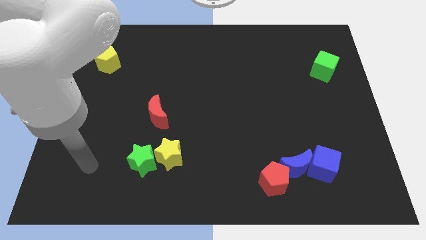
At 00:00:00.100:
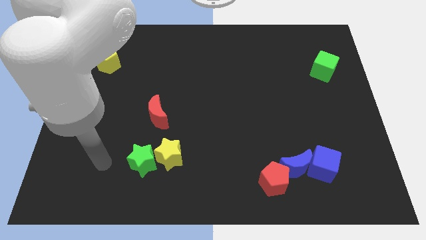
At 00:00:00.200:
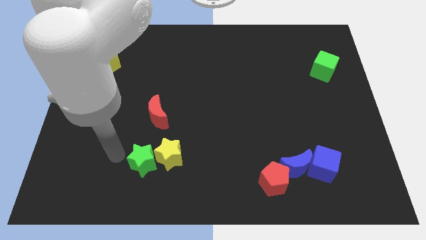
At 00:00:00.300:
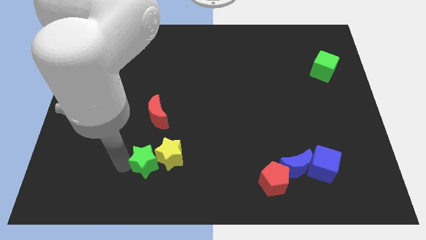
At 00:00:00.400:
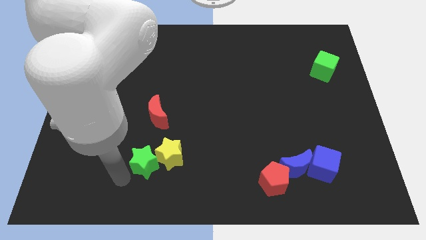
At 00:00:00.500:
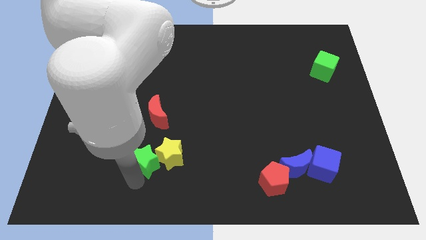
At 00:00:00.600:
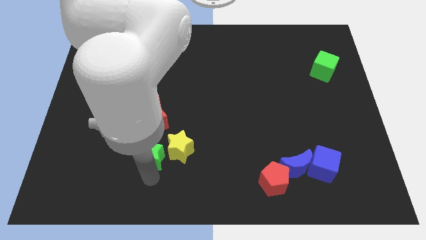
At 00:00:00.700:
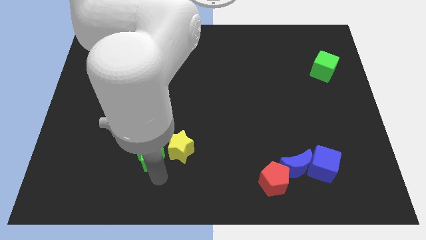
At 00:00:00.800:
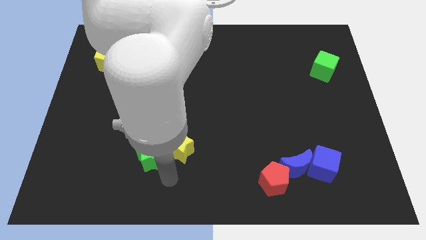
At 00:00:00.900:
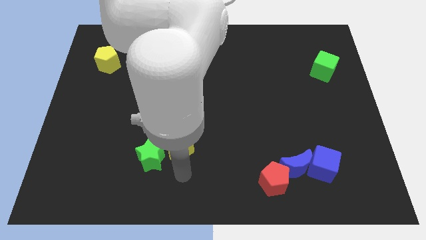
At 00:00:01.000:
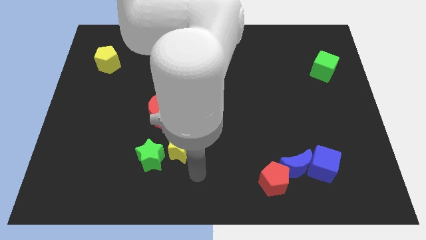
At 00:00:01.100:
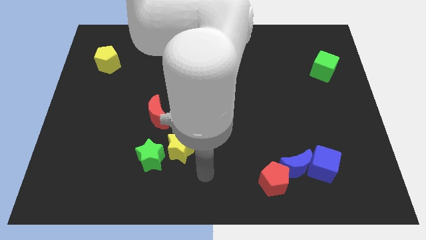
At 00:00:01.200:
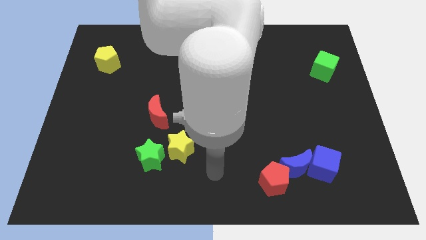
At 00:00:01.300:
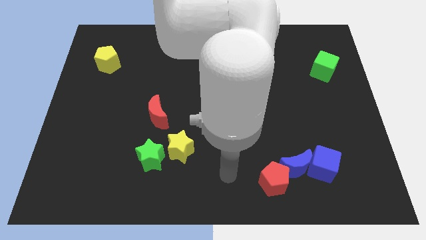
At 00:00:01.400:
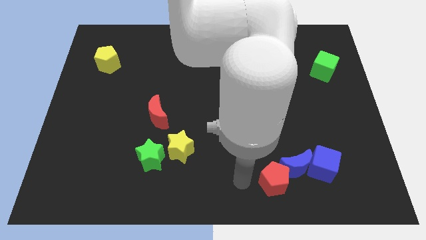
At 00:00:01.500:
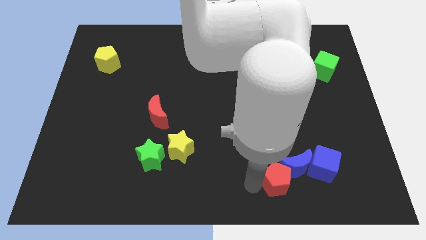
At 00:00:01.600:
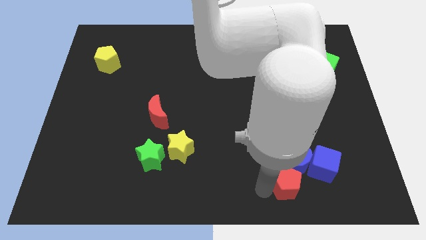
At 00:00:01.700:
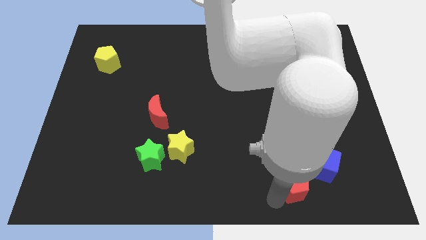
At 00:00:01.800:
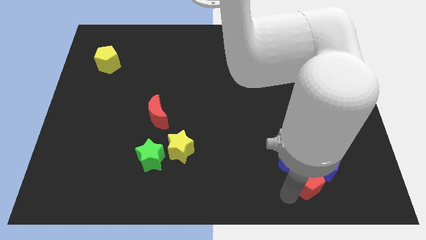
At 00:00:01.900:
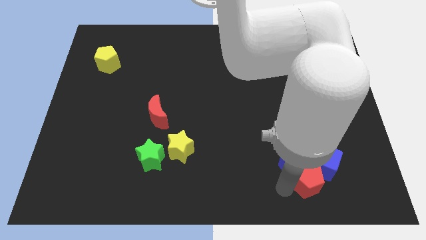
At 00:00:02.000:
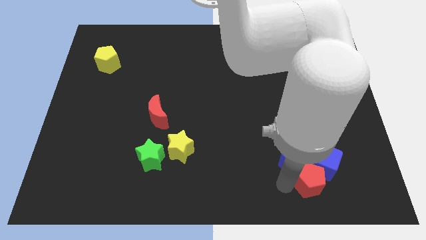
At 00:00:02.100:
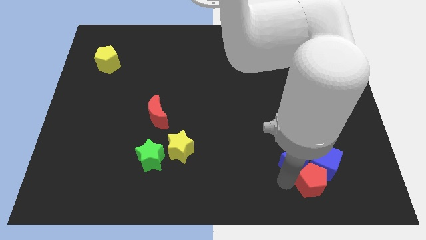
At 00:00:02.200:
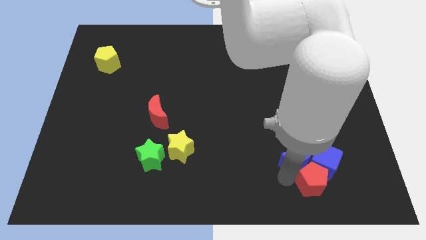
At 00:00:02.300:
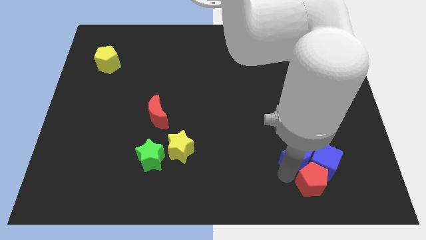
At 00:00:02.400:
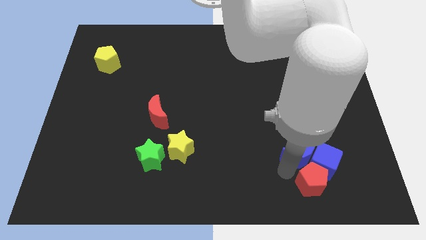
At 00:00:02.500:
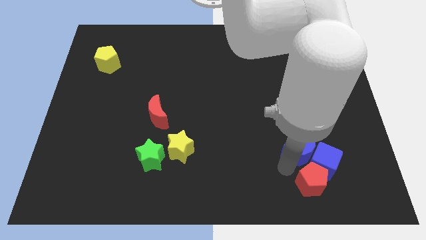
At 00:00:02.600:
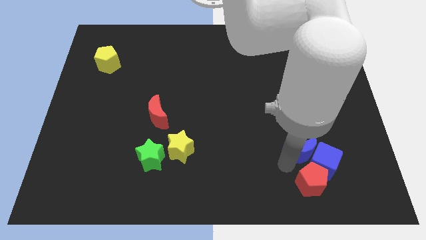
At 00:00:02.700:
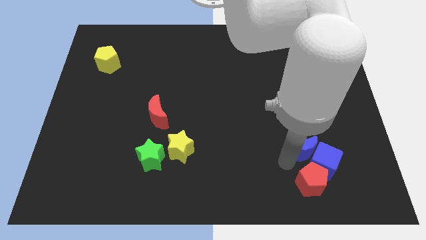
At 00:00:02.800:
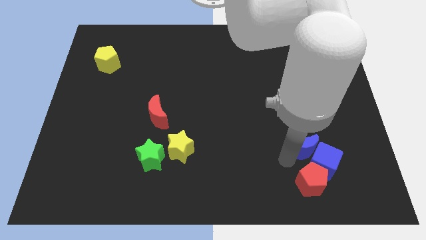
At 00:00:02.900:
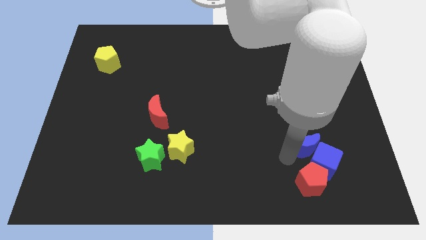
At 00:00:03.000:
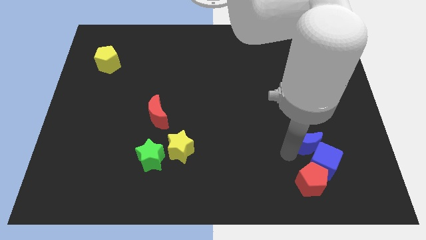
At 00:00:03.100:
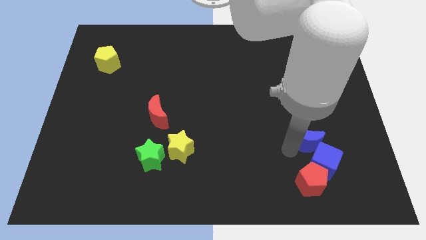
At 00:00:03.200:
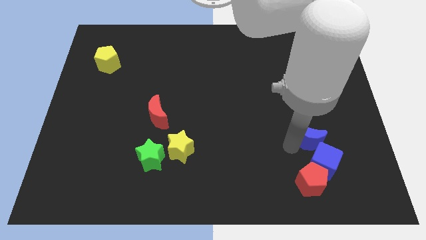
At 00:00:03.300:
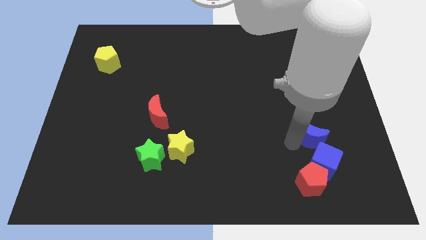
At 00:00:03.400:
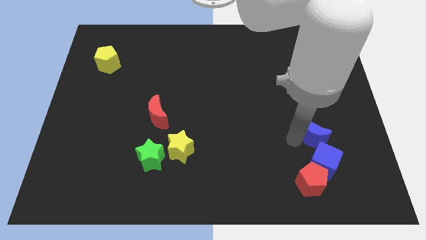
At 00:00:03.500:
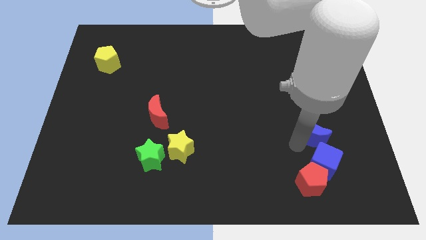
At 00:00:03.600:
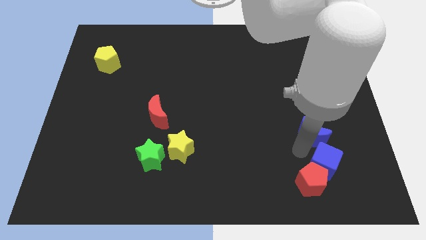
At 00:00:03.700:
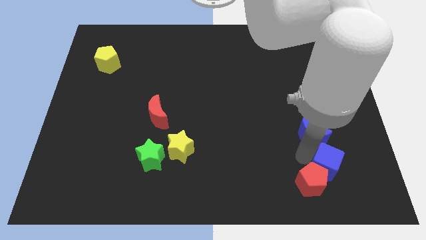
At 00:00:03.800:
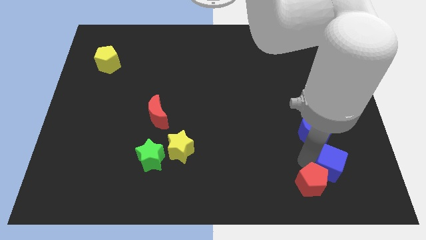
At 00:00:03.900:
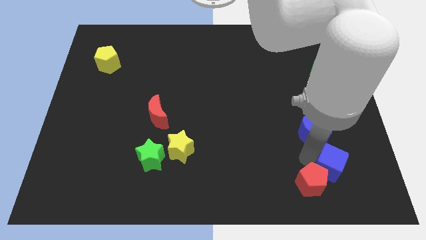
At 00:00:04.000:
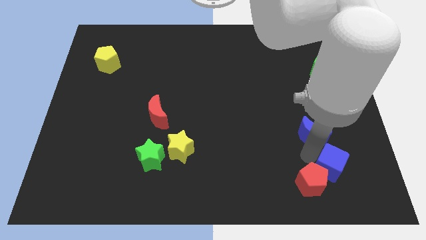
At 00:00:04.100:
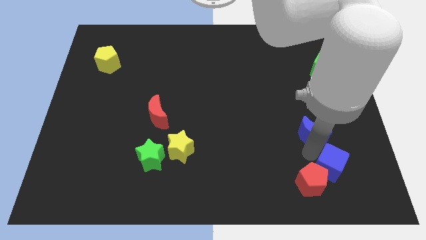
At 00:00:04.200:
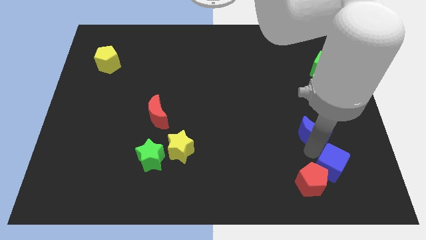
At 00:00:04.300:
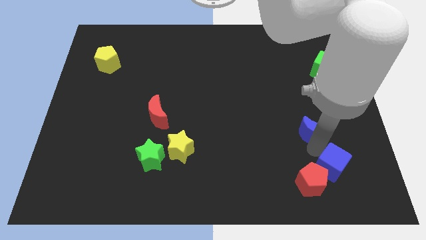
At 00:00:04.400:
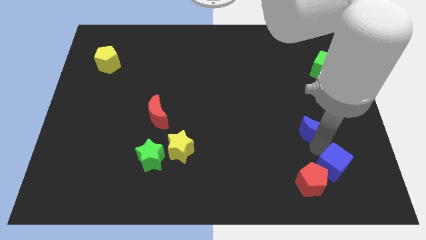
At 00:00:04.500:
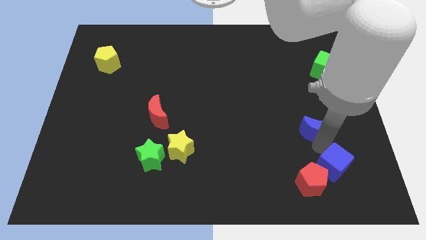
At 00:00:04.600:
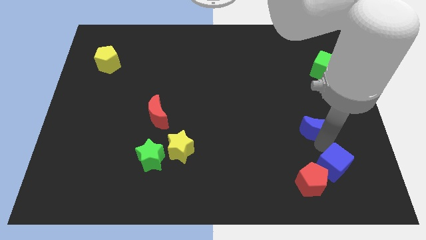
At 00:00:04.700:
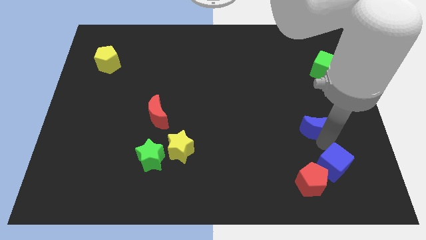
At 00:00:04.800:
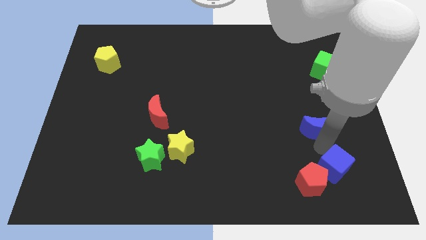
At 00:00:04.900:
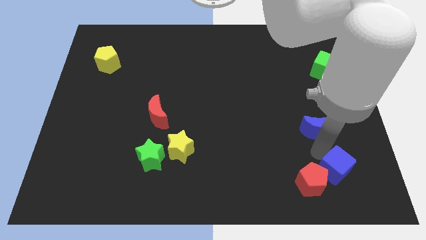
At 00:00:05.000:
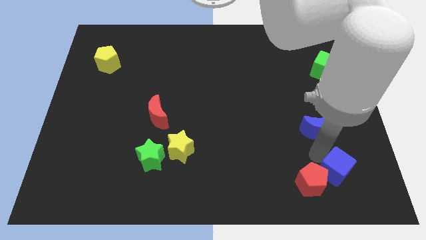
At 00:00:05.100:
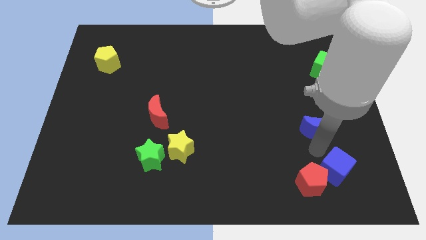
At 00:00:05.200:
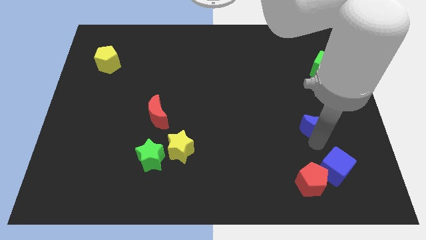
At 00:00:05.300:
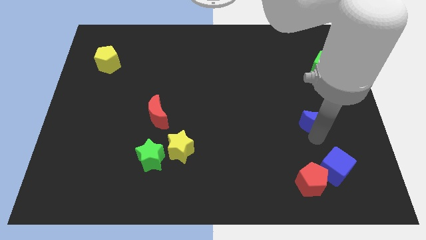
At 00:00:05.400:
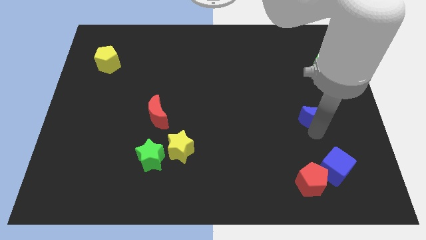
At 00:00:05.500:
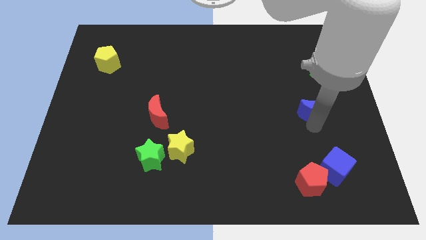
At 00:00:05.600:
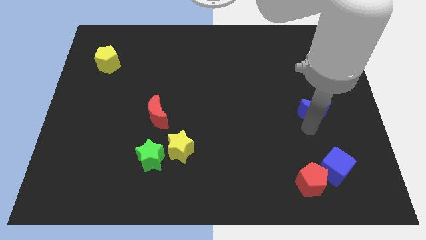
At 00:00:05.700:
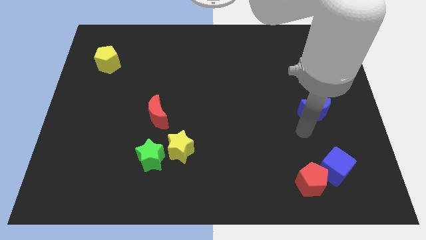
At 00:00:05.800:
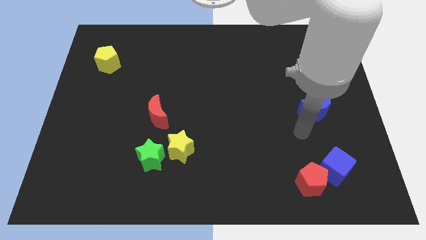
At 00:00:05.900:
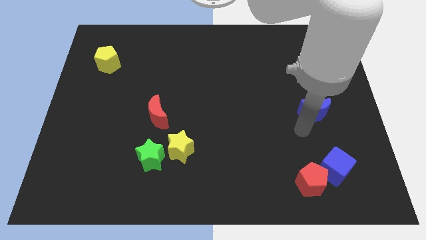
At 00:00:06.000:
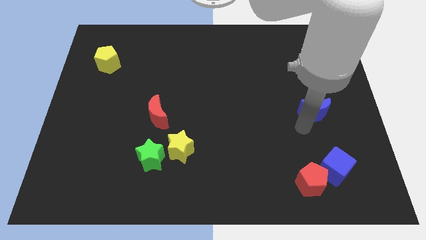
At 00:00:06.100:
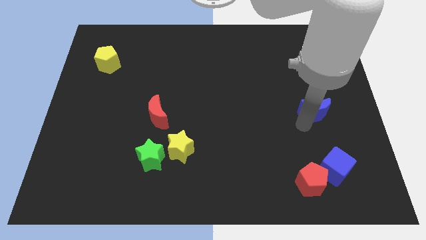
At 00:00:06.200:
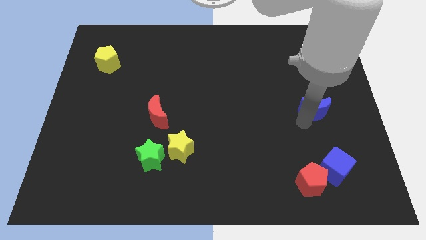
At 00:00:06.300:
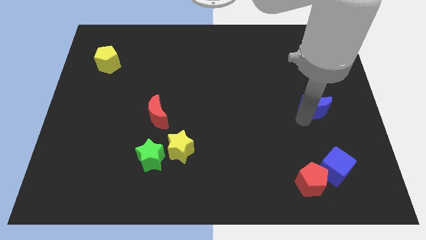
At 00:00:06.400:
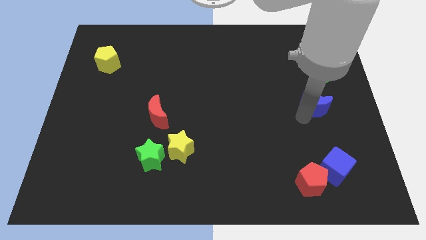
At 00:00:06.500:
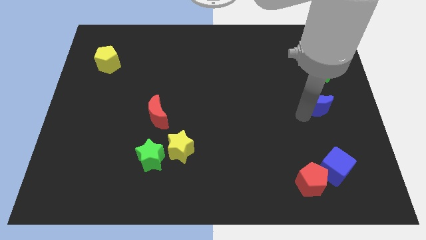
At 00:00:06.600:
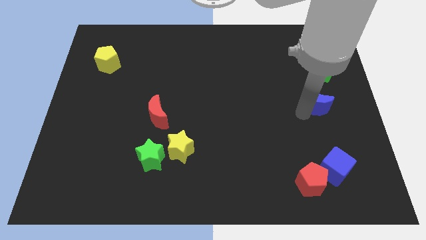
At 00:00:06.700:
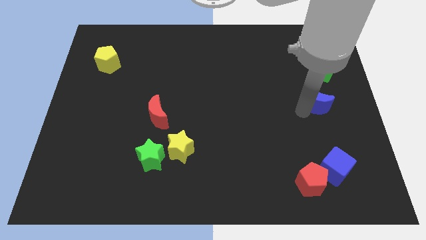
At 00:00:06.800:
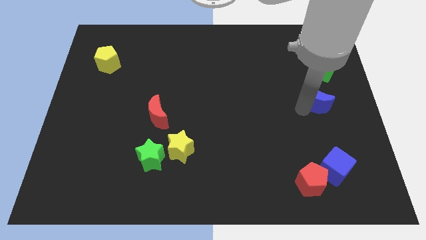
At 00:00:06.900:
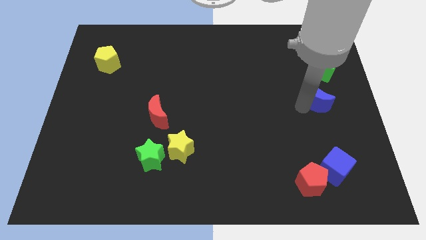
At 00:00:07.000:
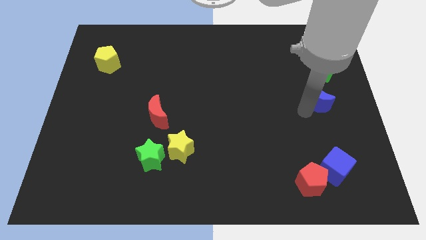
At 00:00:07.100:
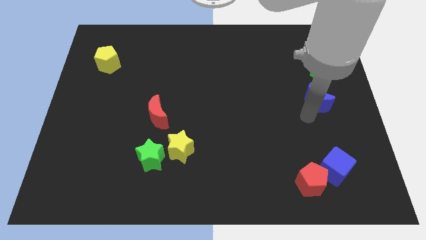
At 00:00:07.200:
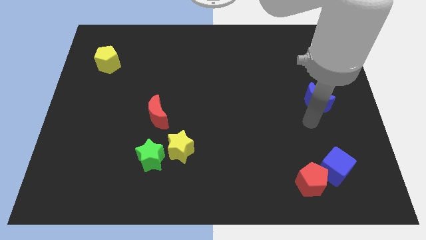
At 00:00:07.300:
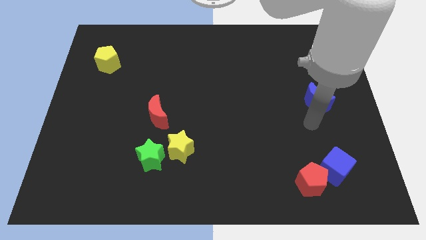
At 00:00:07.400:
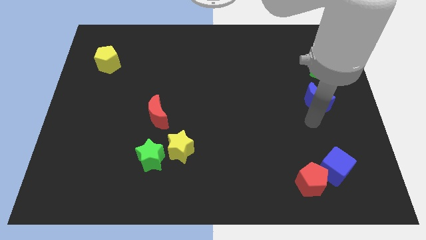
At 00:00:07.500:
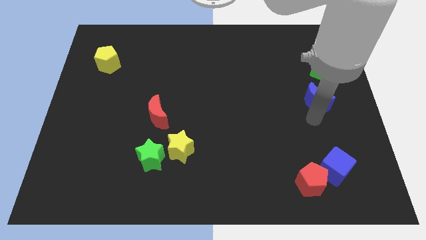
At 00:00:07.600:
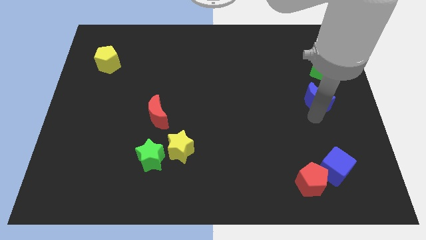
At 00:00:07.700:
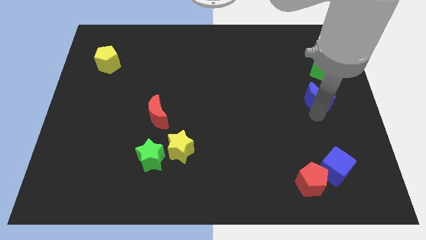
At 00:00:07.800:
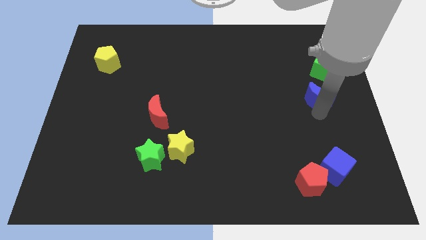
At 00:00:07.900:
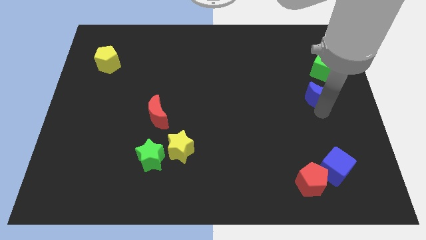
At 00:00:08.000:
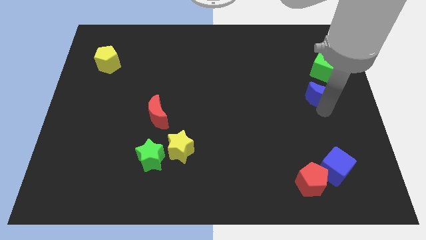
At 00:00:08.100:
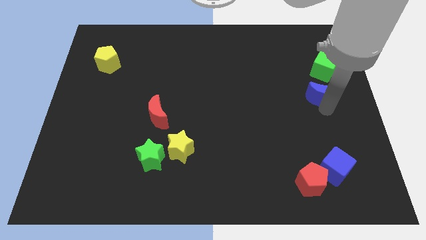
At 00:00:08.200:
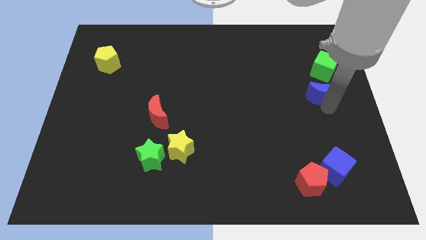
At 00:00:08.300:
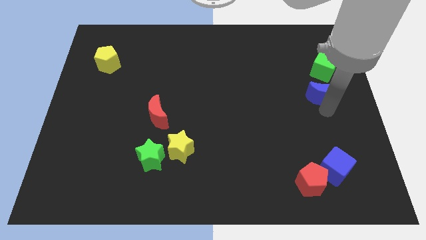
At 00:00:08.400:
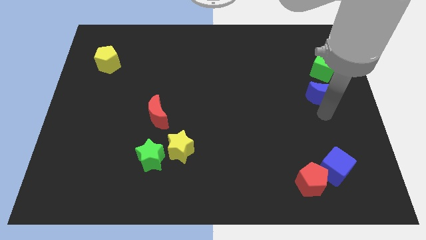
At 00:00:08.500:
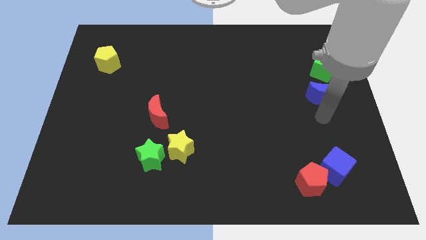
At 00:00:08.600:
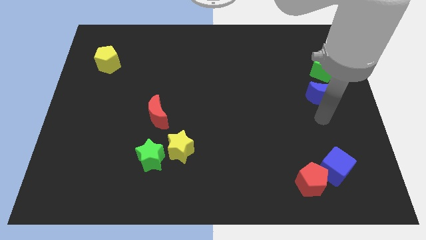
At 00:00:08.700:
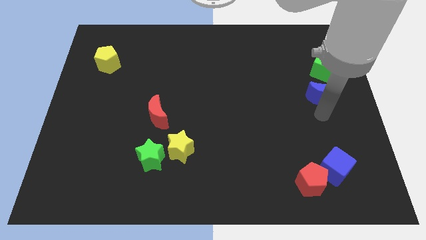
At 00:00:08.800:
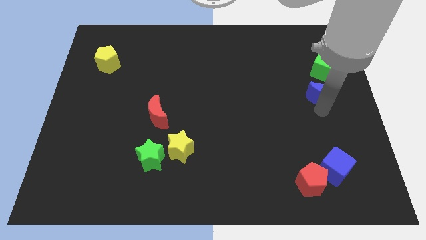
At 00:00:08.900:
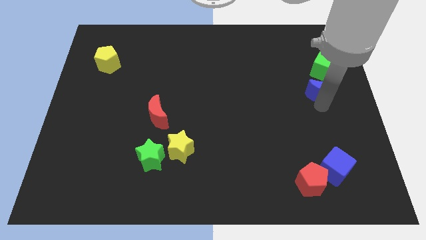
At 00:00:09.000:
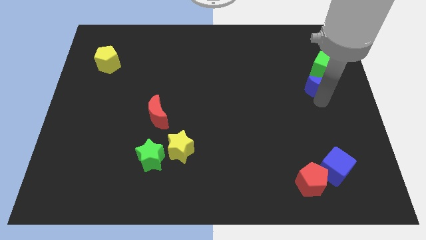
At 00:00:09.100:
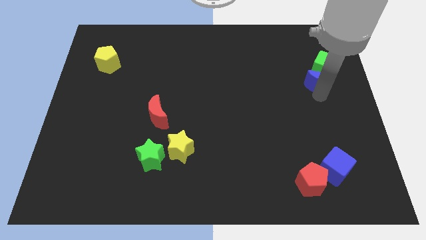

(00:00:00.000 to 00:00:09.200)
move the blue moon towards the green cube
